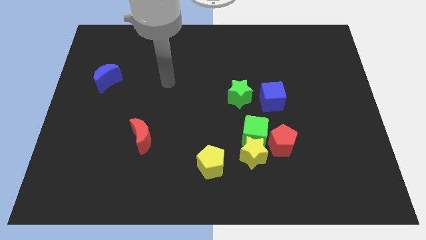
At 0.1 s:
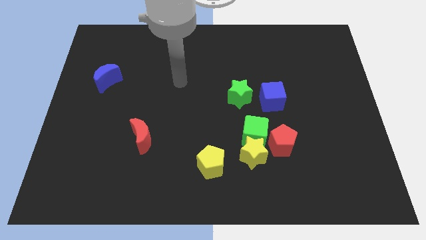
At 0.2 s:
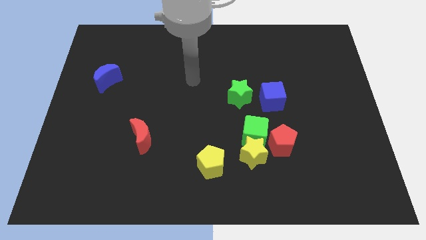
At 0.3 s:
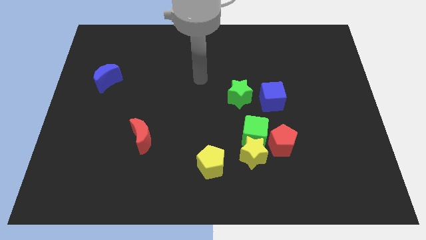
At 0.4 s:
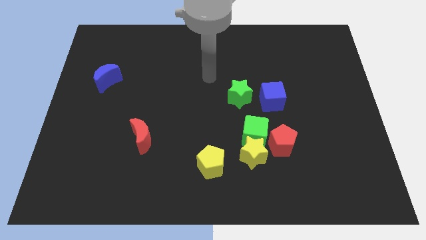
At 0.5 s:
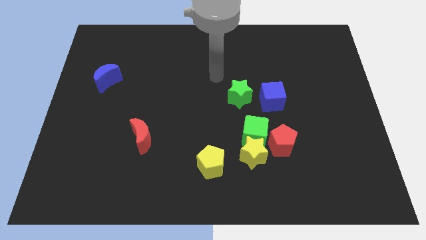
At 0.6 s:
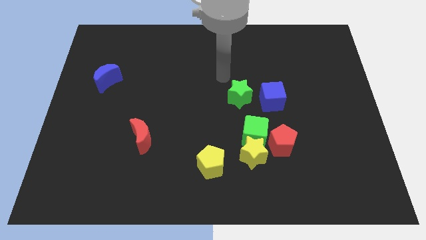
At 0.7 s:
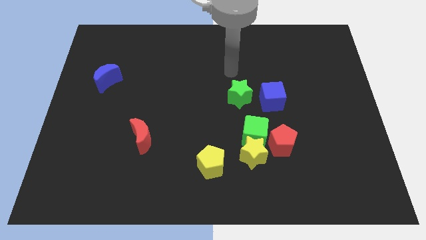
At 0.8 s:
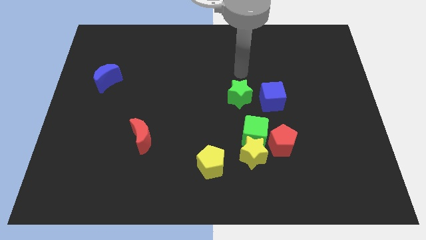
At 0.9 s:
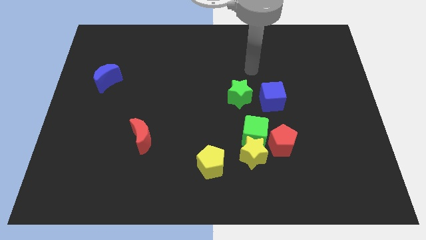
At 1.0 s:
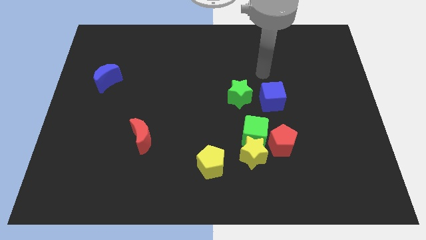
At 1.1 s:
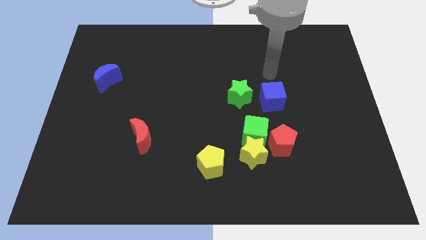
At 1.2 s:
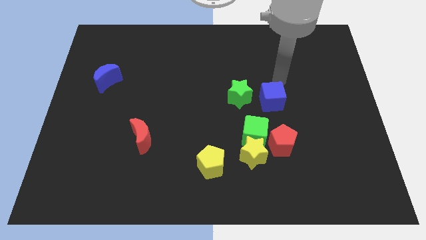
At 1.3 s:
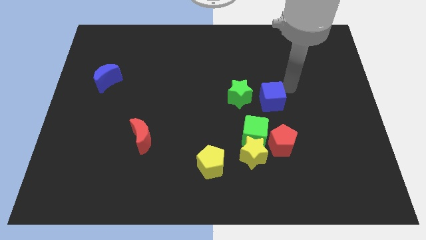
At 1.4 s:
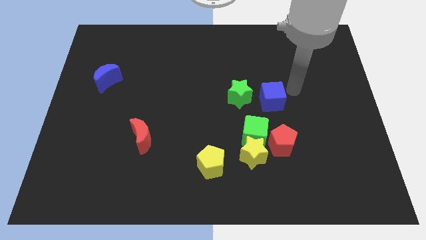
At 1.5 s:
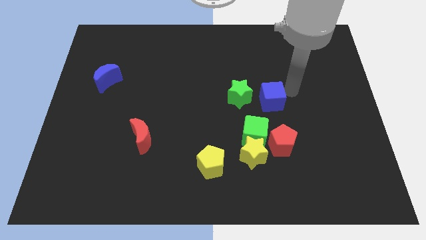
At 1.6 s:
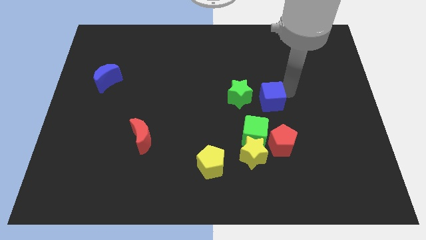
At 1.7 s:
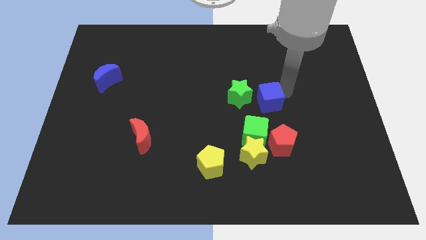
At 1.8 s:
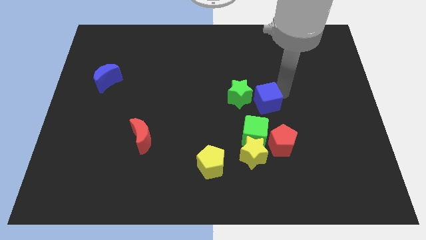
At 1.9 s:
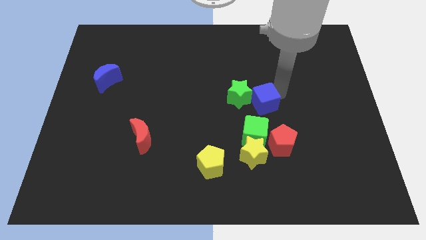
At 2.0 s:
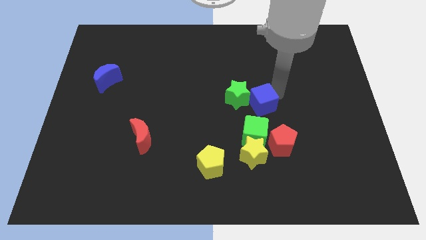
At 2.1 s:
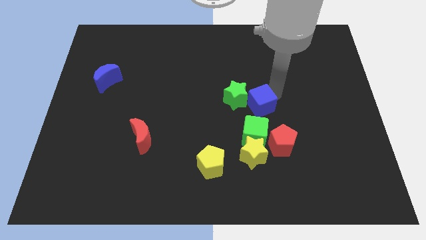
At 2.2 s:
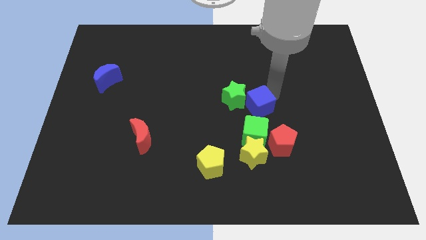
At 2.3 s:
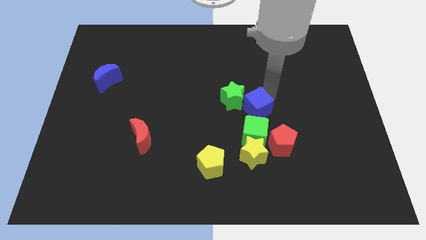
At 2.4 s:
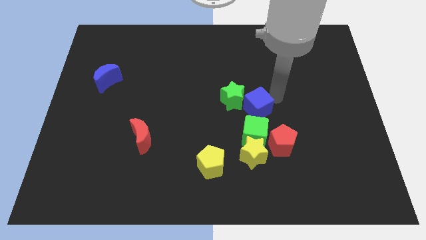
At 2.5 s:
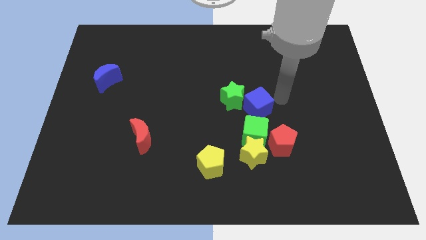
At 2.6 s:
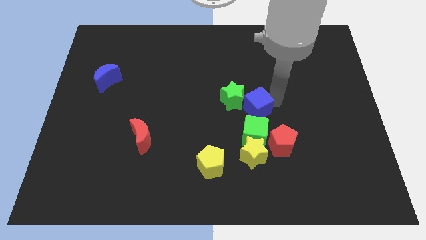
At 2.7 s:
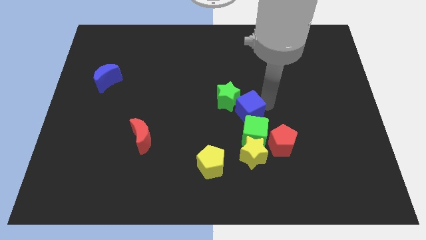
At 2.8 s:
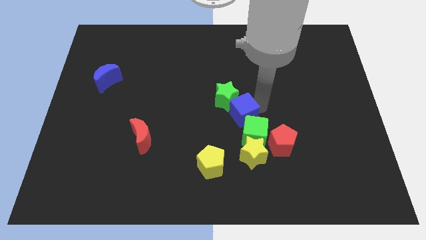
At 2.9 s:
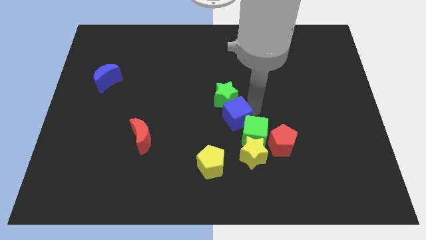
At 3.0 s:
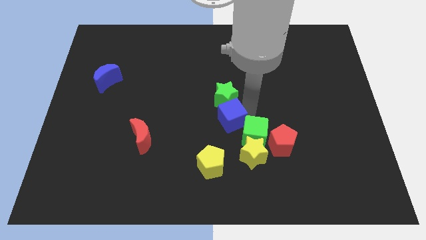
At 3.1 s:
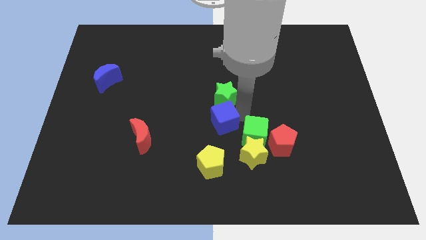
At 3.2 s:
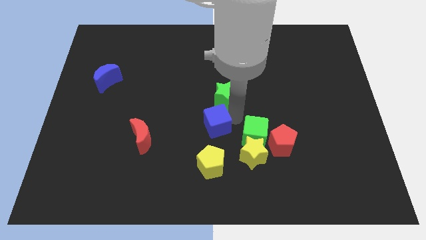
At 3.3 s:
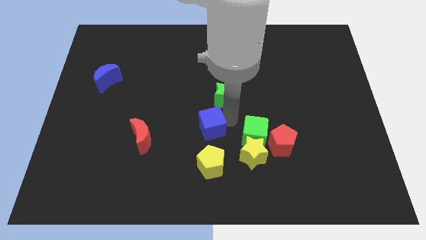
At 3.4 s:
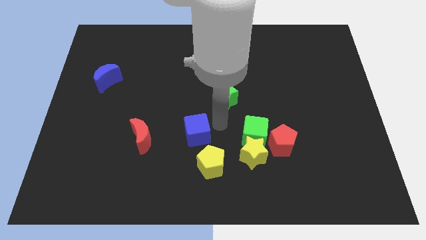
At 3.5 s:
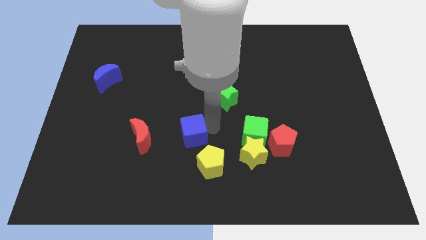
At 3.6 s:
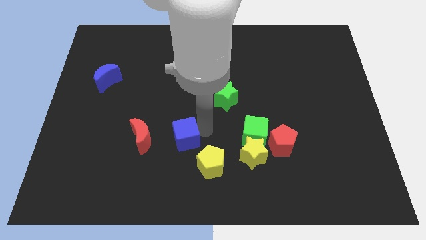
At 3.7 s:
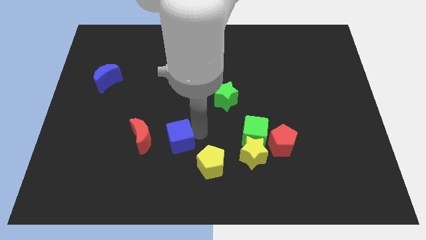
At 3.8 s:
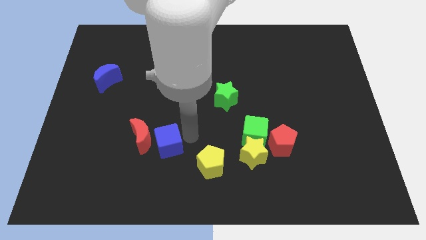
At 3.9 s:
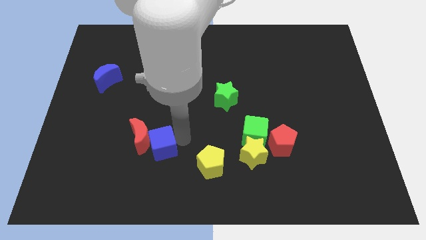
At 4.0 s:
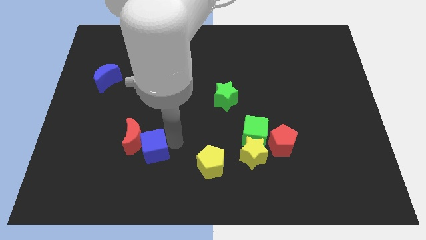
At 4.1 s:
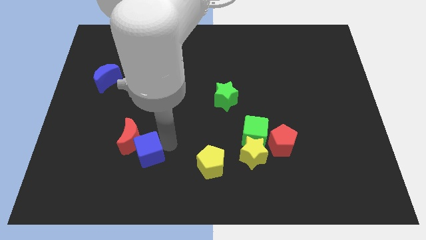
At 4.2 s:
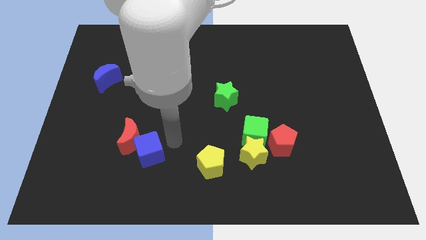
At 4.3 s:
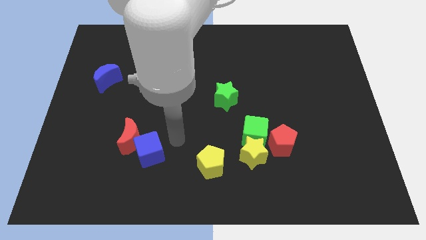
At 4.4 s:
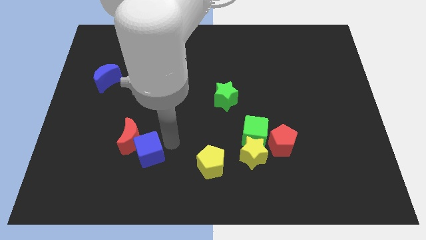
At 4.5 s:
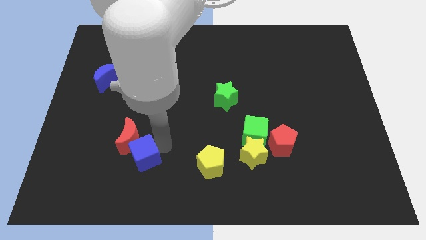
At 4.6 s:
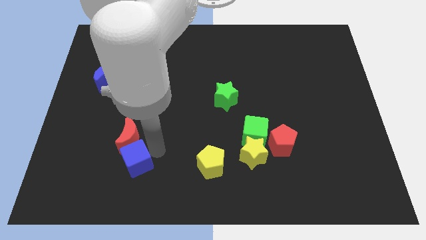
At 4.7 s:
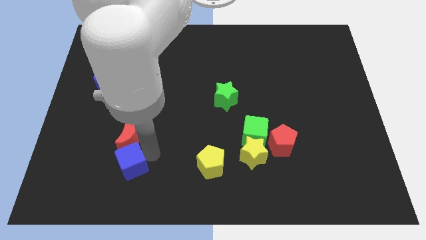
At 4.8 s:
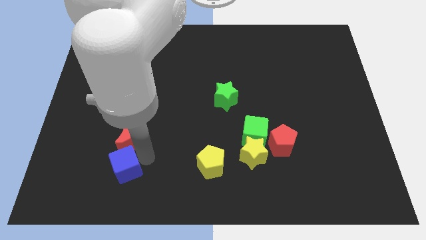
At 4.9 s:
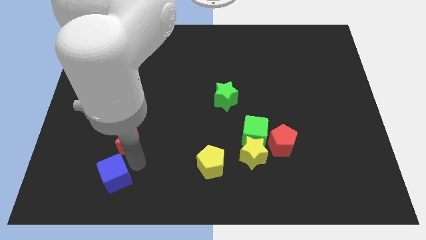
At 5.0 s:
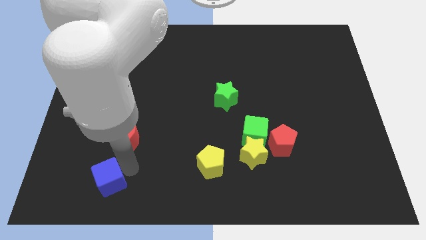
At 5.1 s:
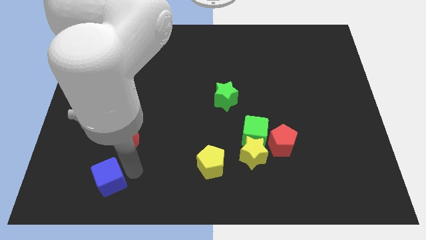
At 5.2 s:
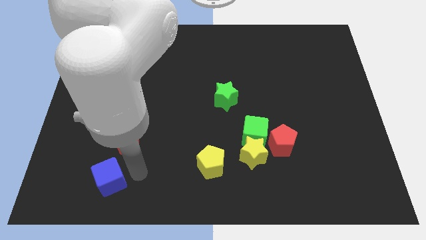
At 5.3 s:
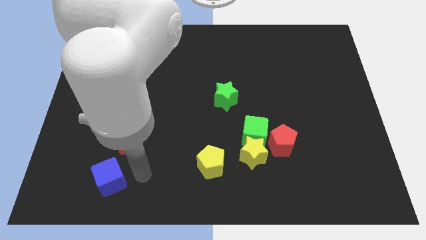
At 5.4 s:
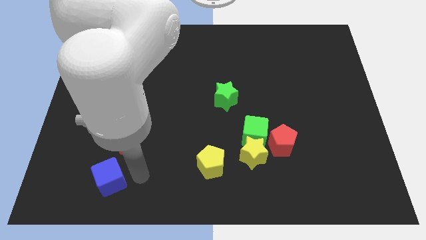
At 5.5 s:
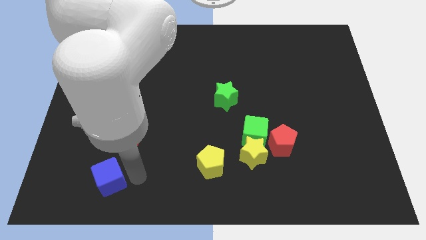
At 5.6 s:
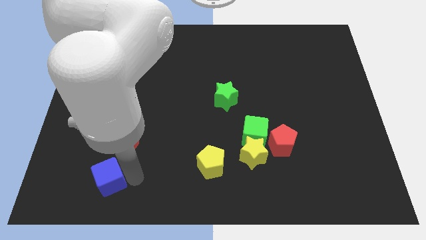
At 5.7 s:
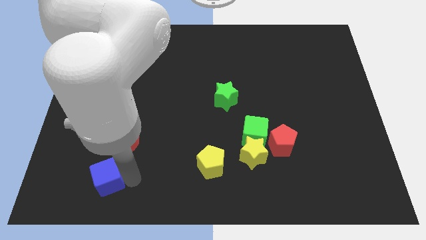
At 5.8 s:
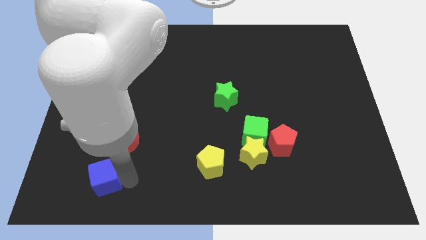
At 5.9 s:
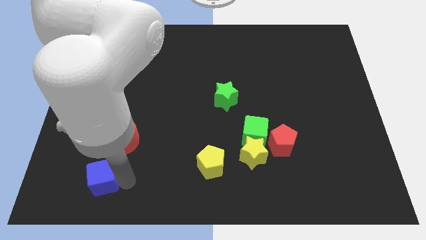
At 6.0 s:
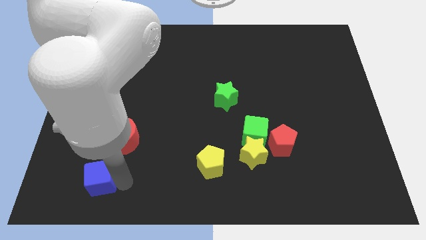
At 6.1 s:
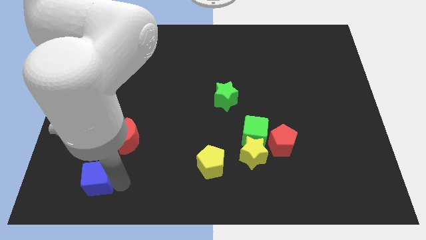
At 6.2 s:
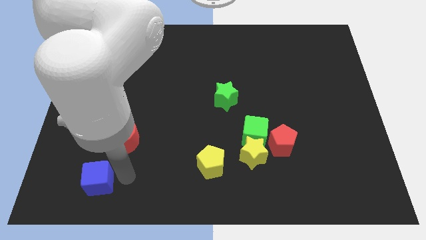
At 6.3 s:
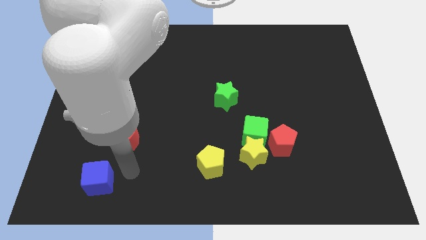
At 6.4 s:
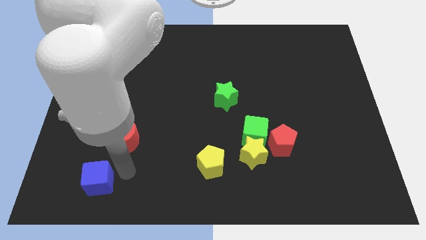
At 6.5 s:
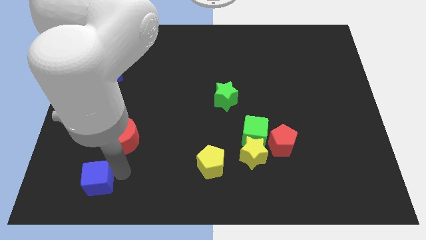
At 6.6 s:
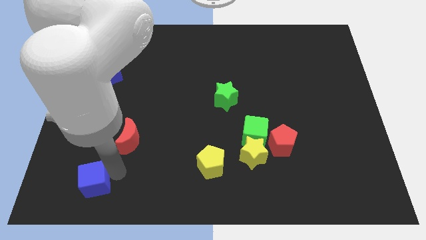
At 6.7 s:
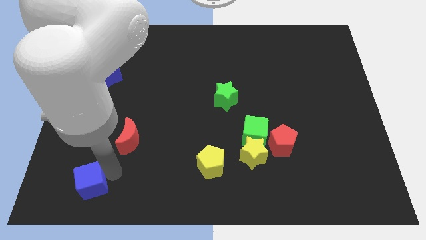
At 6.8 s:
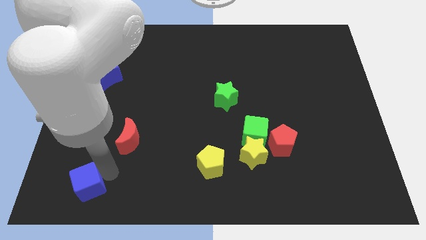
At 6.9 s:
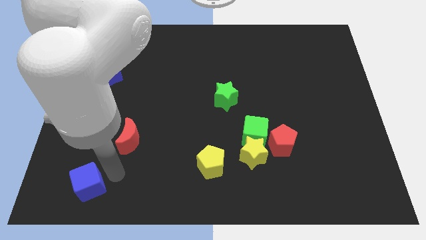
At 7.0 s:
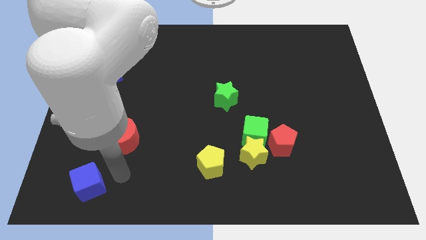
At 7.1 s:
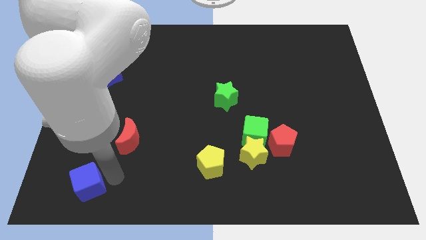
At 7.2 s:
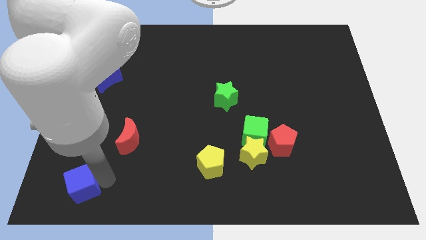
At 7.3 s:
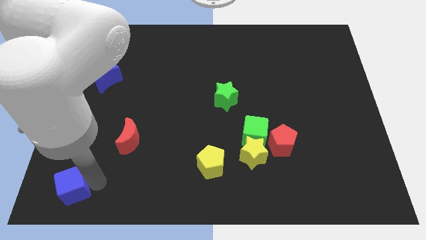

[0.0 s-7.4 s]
move the blue cube to the lower left corner
